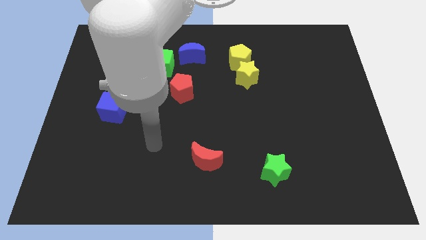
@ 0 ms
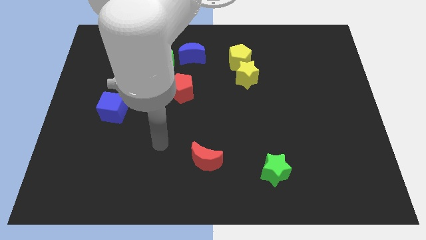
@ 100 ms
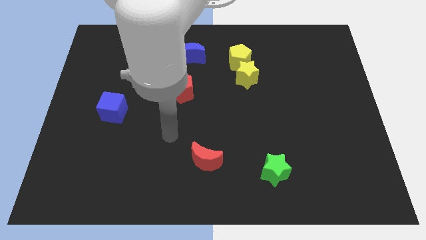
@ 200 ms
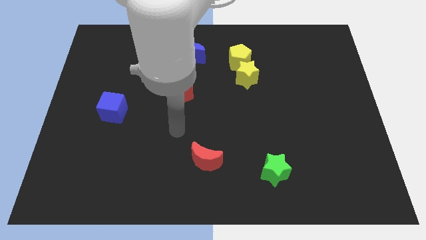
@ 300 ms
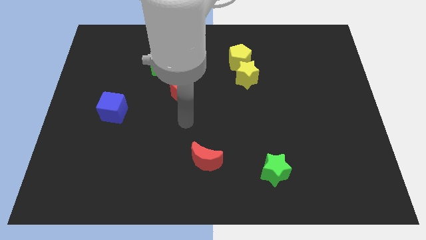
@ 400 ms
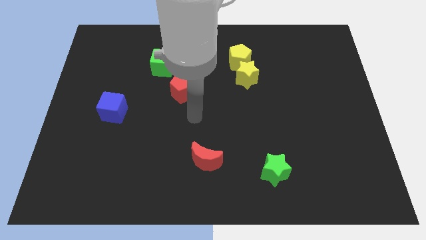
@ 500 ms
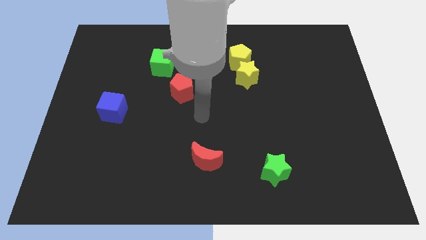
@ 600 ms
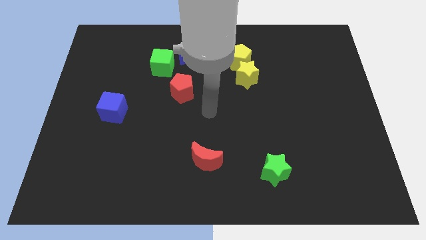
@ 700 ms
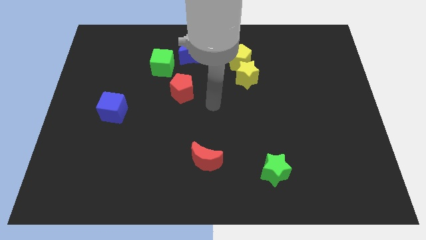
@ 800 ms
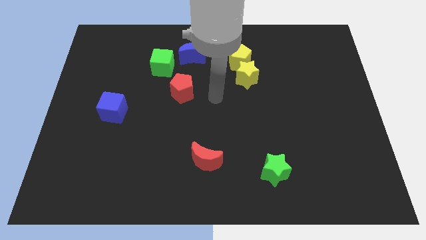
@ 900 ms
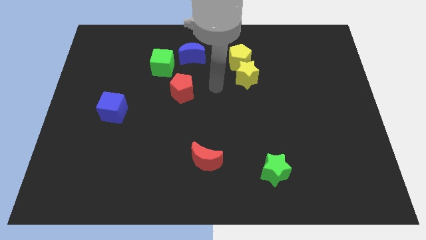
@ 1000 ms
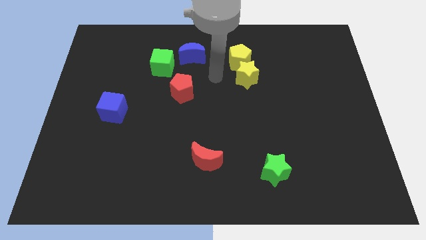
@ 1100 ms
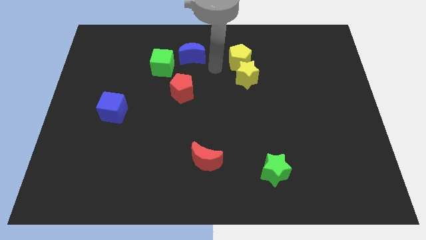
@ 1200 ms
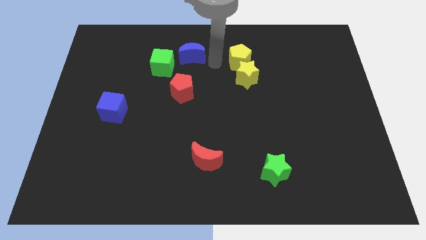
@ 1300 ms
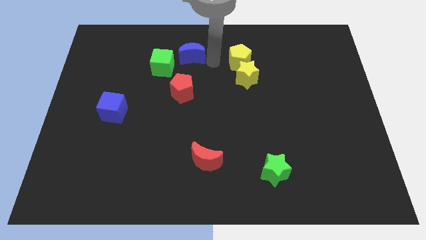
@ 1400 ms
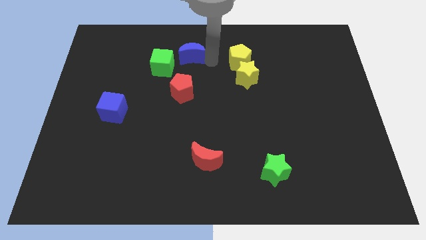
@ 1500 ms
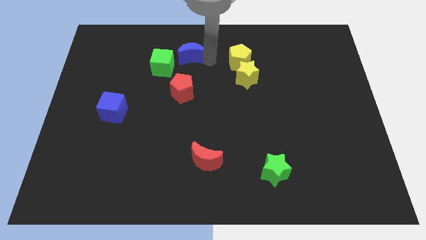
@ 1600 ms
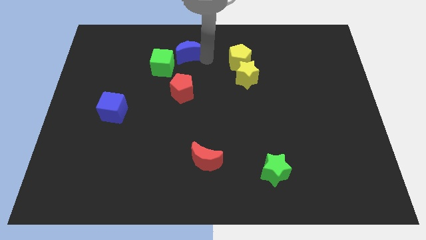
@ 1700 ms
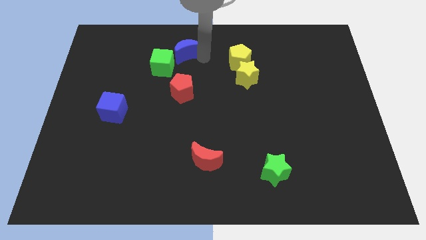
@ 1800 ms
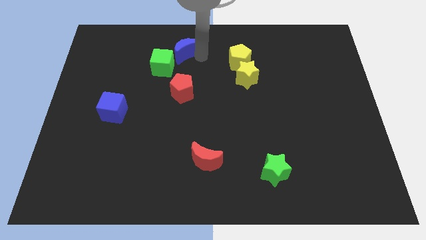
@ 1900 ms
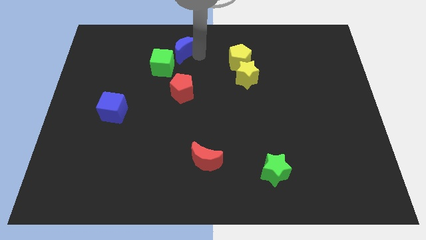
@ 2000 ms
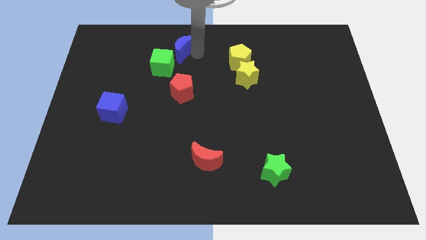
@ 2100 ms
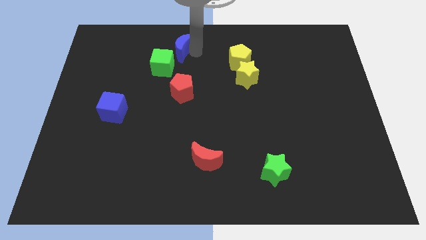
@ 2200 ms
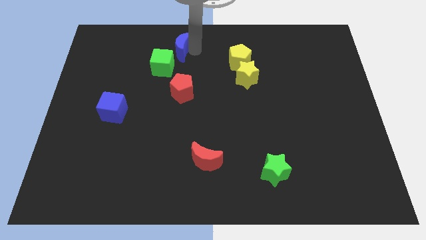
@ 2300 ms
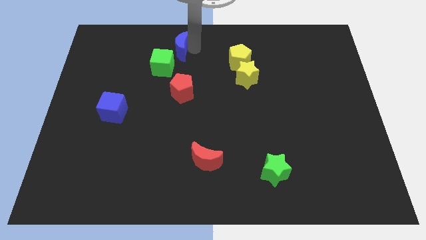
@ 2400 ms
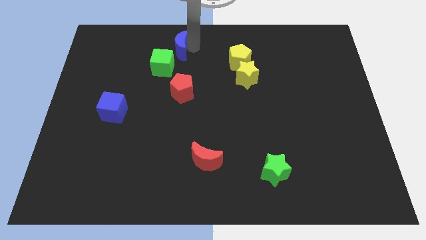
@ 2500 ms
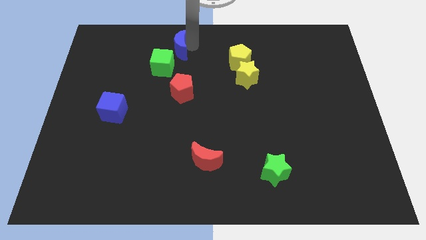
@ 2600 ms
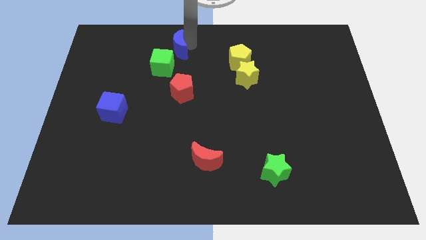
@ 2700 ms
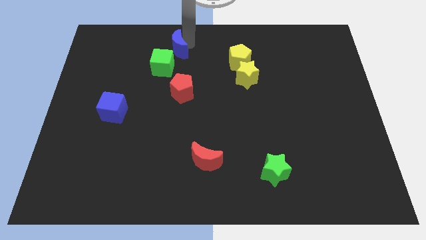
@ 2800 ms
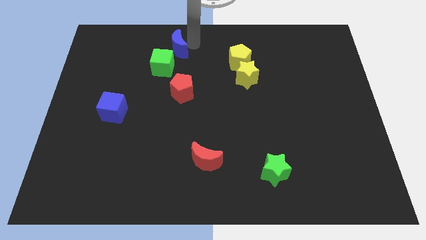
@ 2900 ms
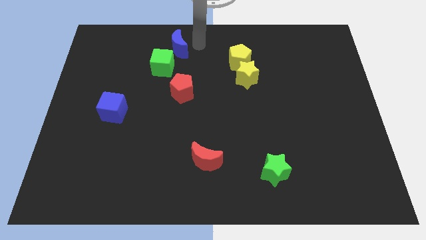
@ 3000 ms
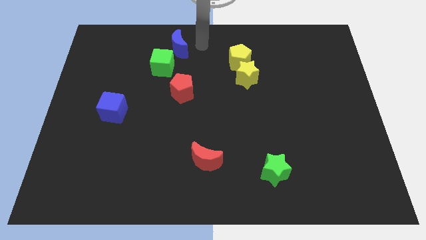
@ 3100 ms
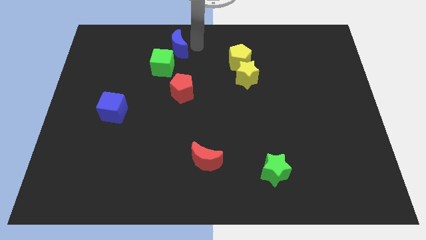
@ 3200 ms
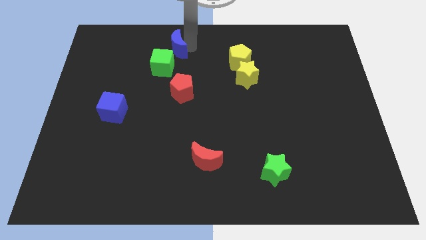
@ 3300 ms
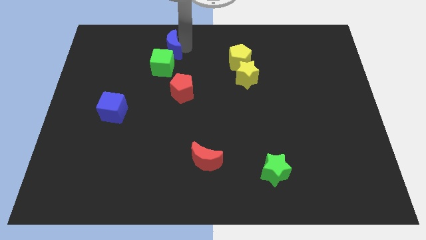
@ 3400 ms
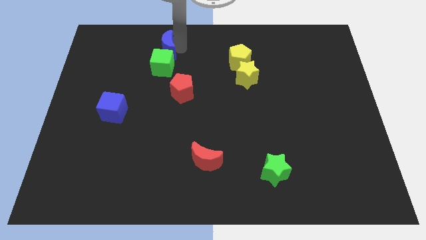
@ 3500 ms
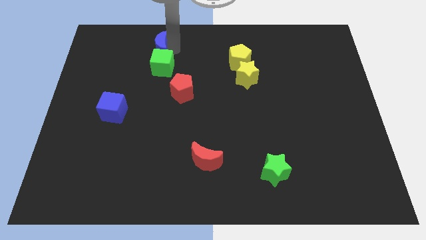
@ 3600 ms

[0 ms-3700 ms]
push the blue moon somewhat left

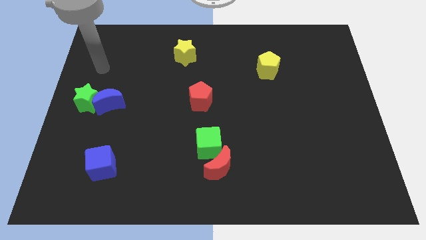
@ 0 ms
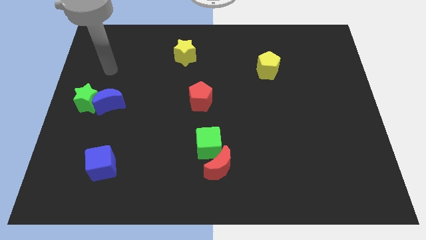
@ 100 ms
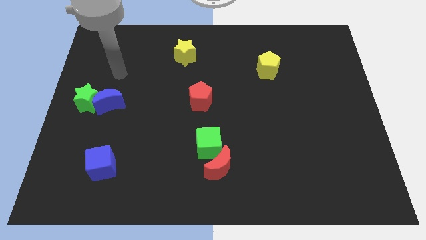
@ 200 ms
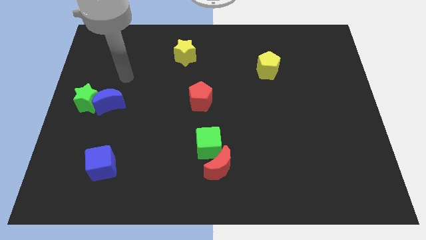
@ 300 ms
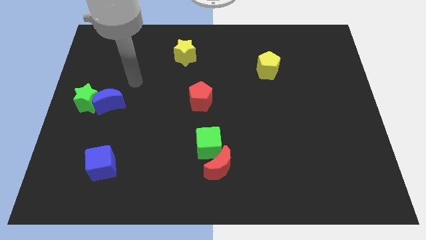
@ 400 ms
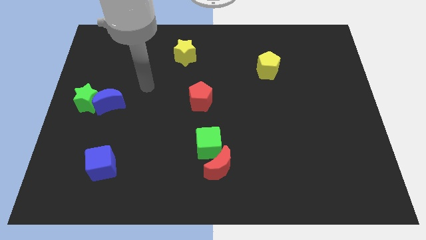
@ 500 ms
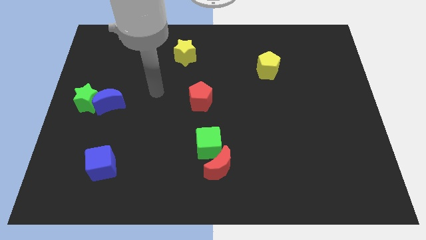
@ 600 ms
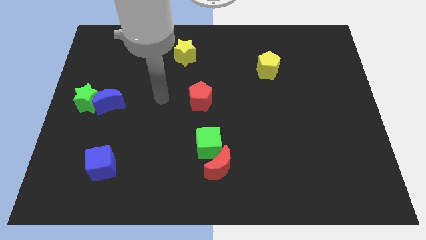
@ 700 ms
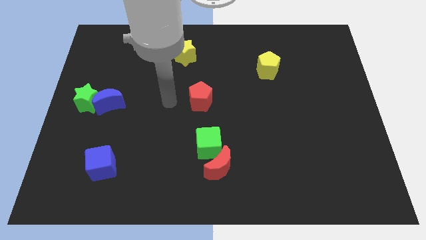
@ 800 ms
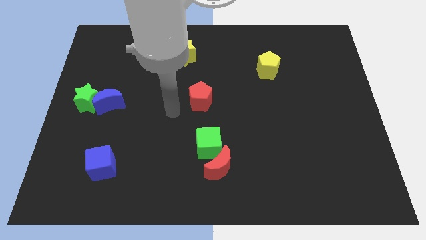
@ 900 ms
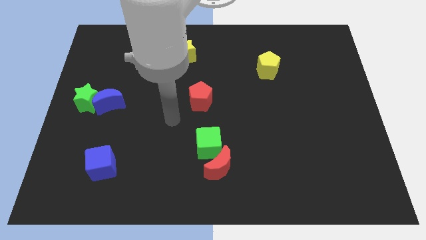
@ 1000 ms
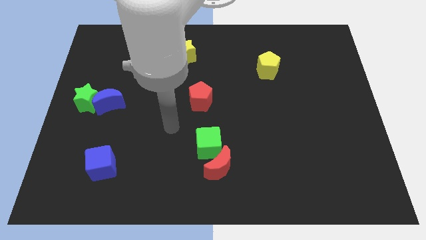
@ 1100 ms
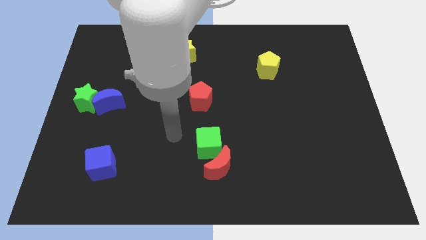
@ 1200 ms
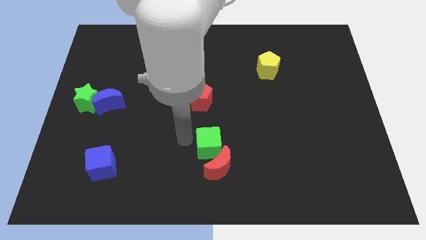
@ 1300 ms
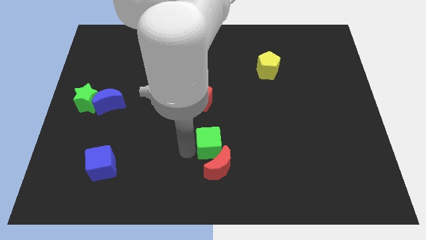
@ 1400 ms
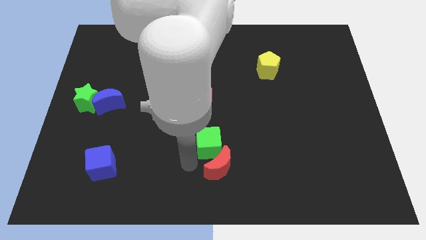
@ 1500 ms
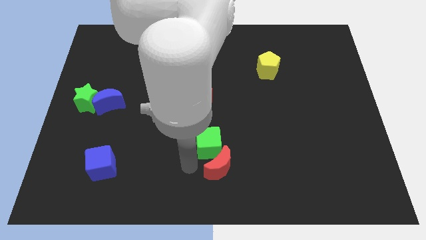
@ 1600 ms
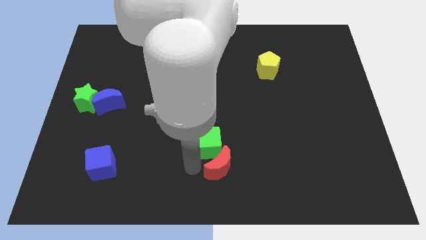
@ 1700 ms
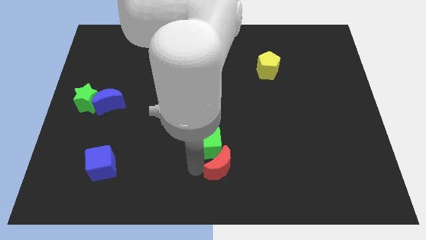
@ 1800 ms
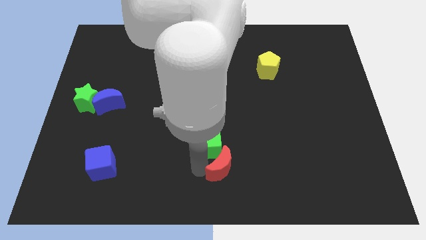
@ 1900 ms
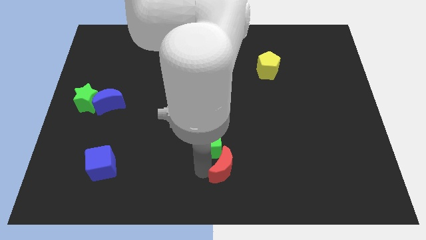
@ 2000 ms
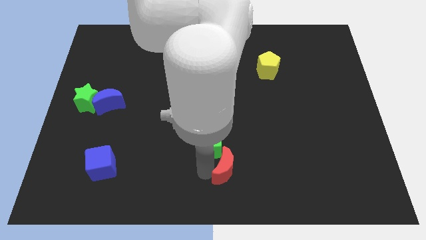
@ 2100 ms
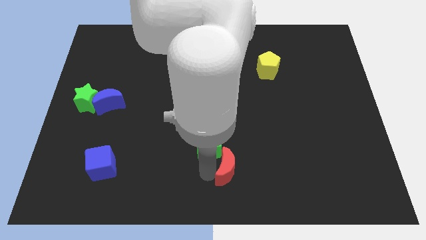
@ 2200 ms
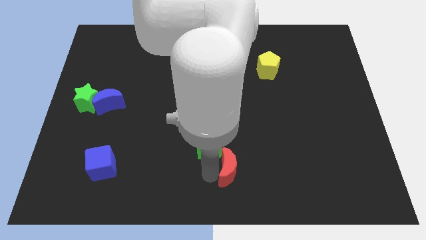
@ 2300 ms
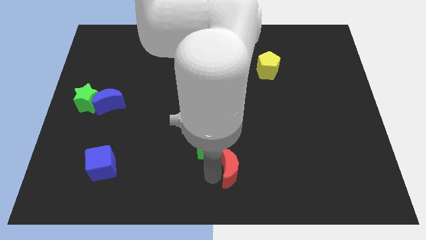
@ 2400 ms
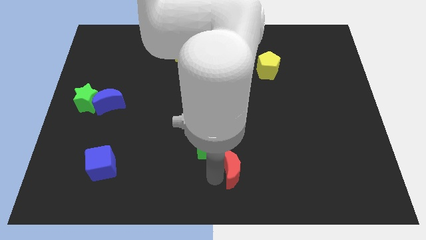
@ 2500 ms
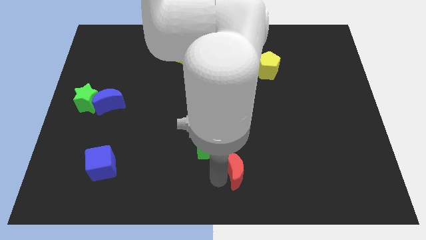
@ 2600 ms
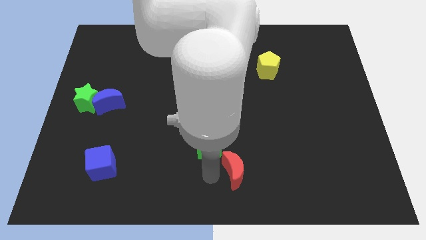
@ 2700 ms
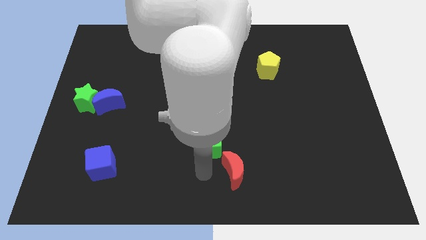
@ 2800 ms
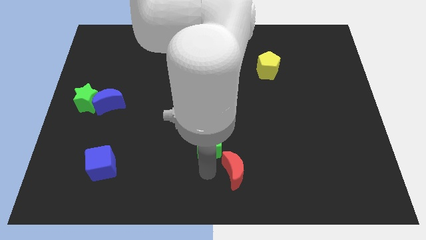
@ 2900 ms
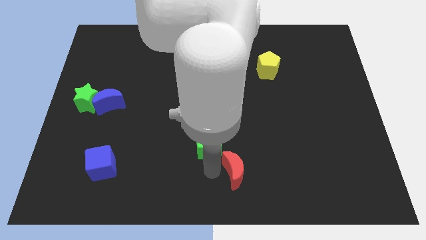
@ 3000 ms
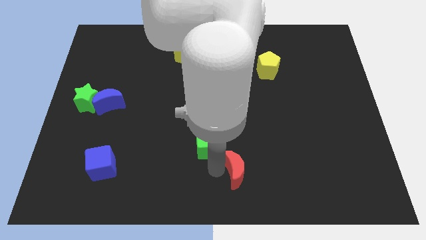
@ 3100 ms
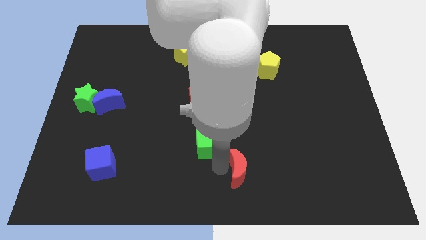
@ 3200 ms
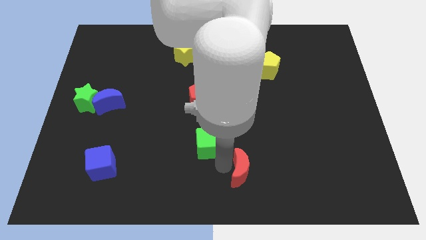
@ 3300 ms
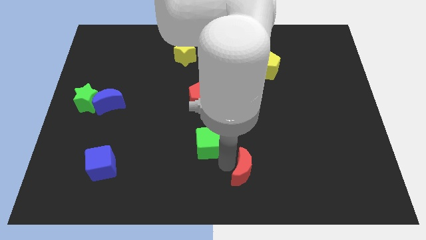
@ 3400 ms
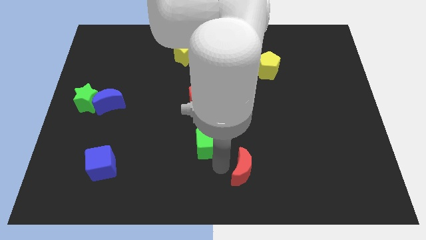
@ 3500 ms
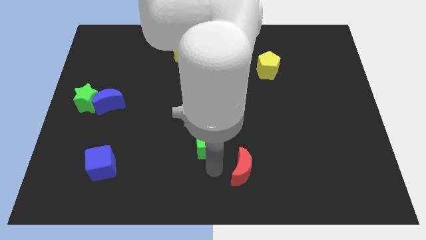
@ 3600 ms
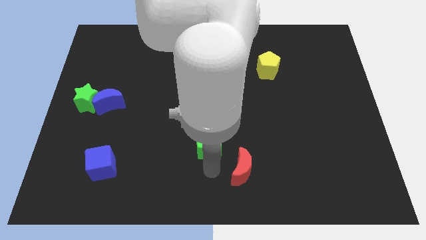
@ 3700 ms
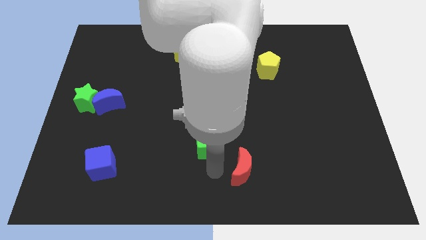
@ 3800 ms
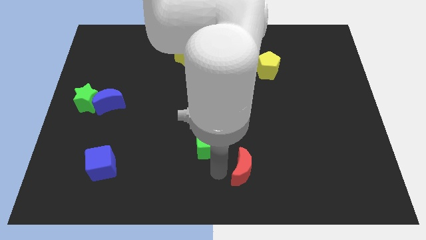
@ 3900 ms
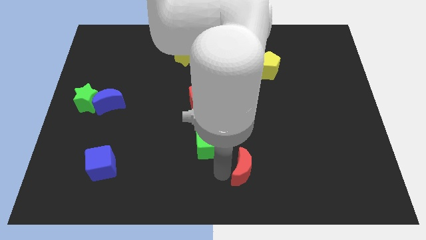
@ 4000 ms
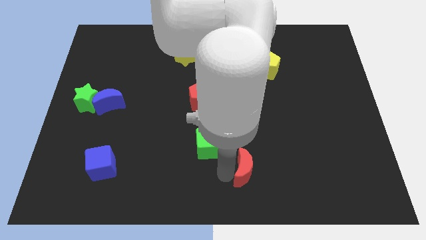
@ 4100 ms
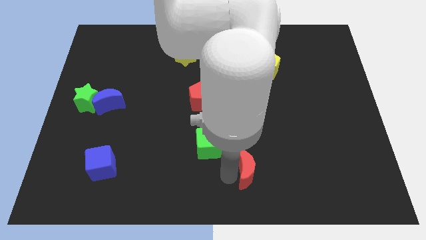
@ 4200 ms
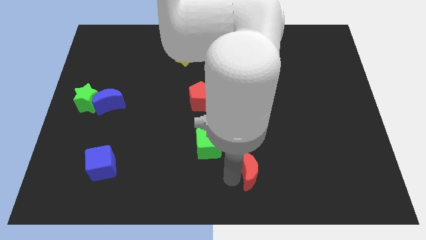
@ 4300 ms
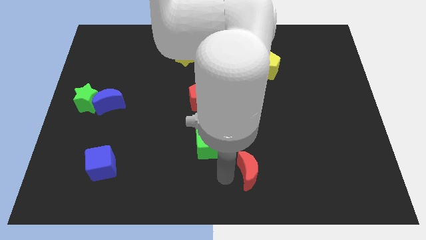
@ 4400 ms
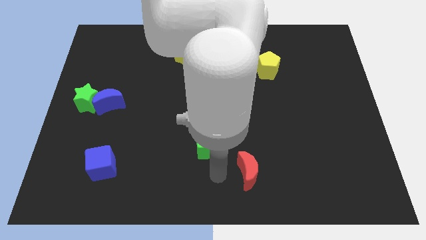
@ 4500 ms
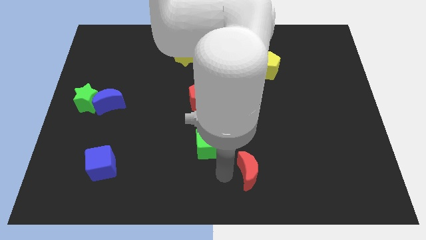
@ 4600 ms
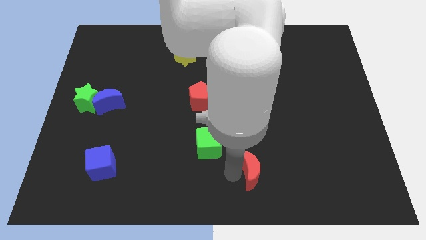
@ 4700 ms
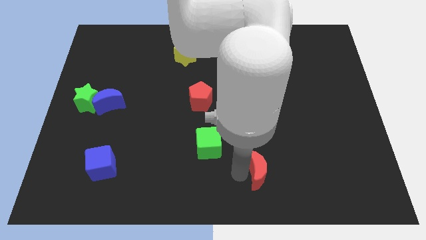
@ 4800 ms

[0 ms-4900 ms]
move the red moon somewhat to the right
